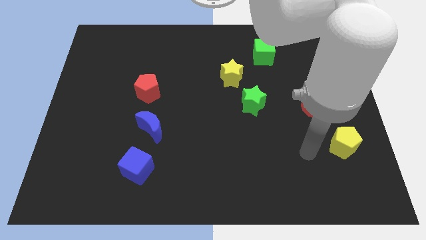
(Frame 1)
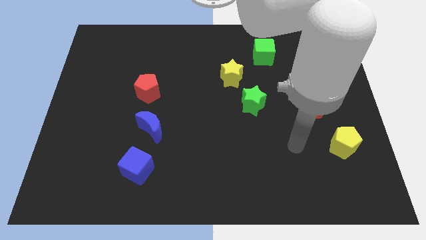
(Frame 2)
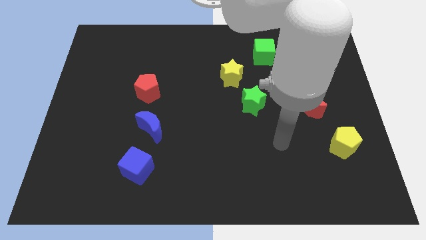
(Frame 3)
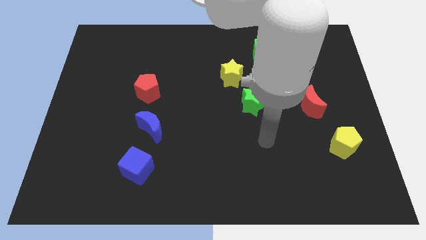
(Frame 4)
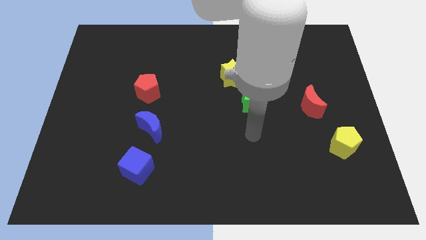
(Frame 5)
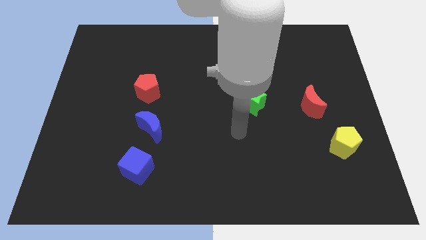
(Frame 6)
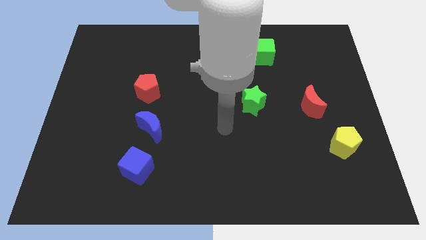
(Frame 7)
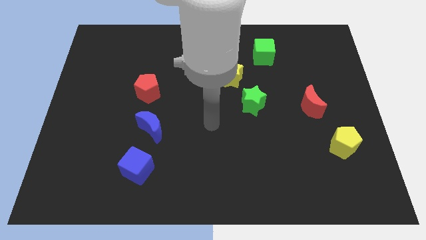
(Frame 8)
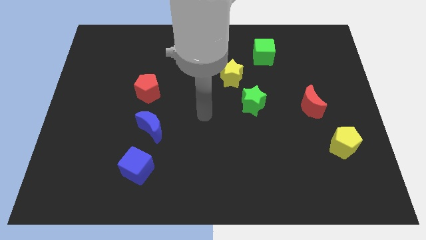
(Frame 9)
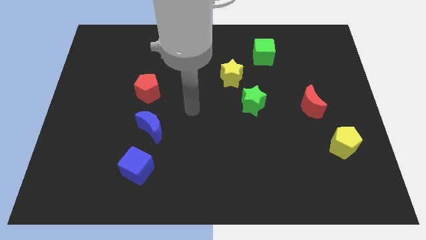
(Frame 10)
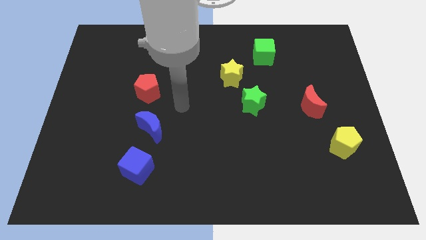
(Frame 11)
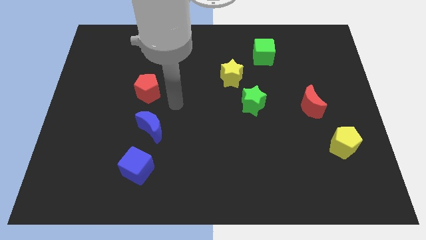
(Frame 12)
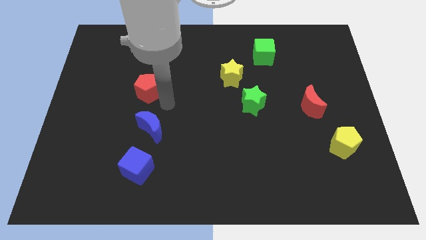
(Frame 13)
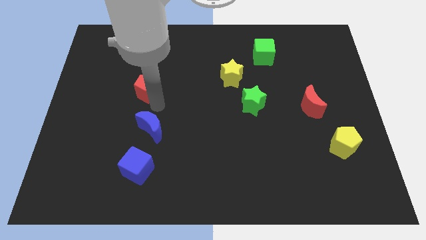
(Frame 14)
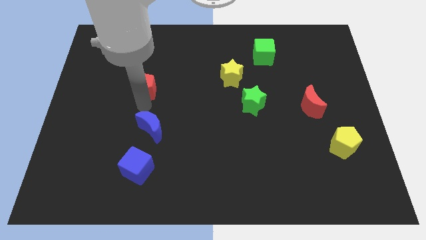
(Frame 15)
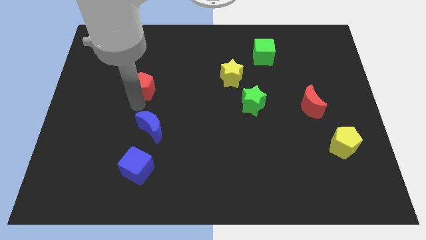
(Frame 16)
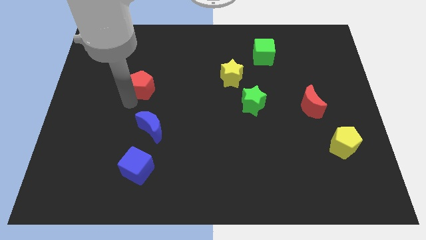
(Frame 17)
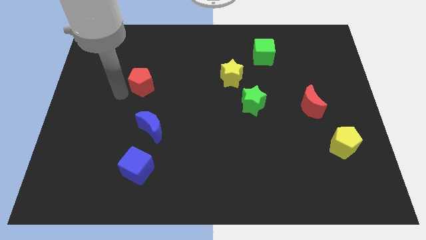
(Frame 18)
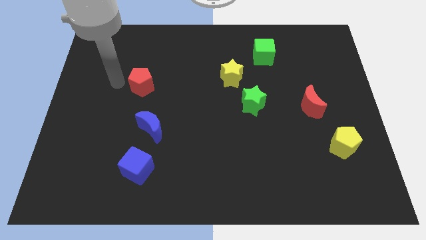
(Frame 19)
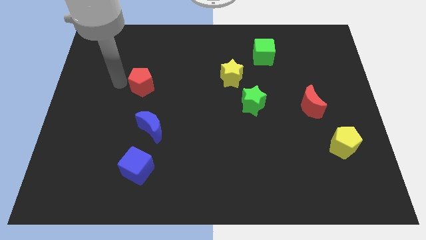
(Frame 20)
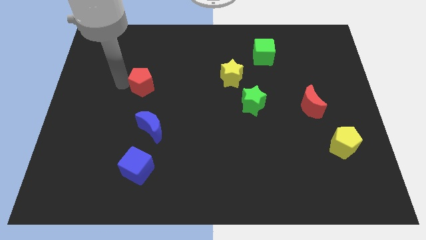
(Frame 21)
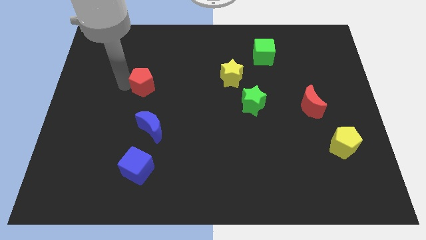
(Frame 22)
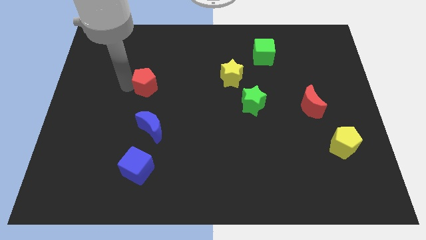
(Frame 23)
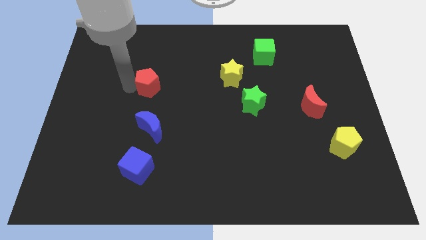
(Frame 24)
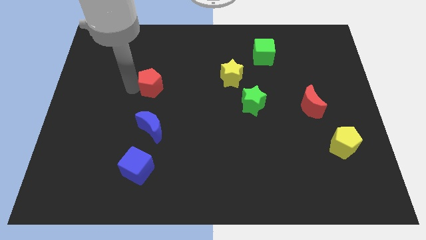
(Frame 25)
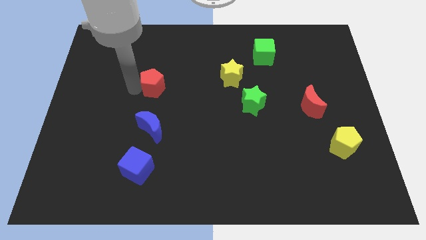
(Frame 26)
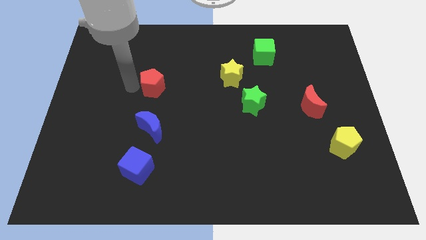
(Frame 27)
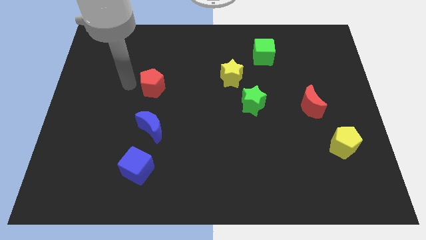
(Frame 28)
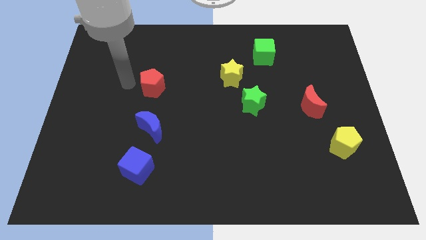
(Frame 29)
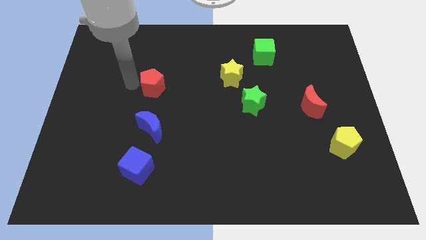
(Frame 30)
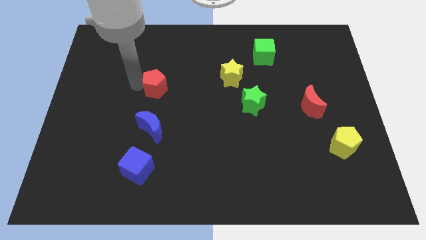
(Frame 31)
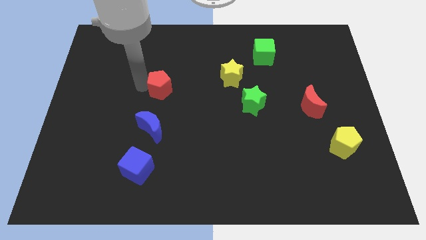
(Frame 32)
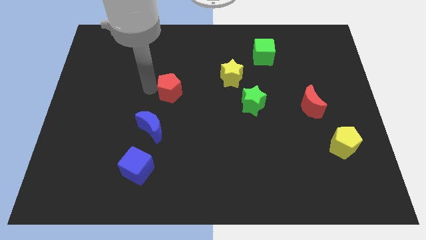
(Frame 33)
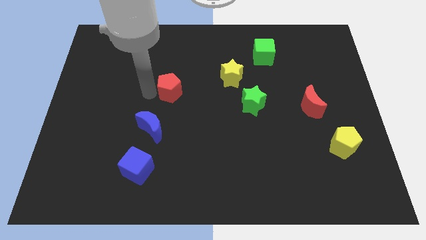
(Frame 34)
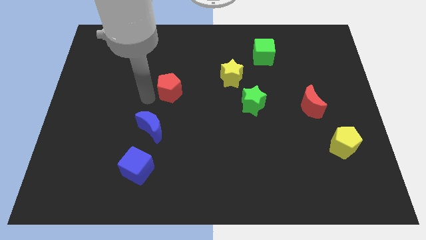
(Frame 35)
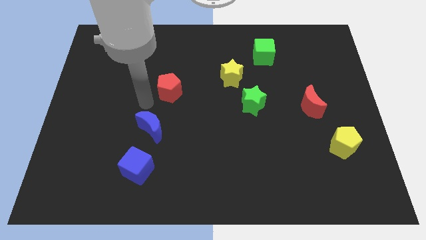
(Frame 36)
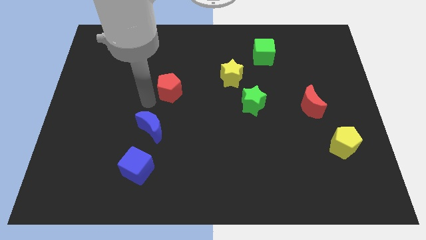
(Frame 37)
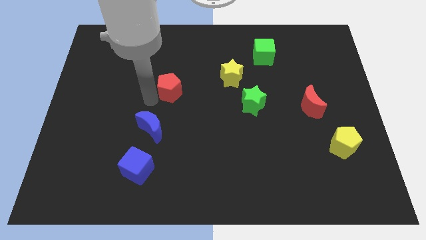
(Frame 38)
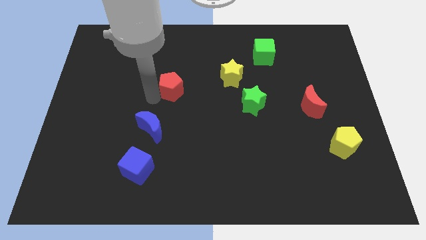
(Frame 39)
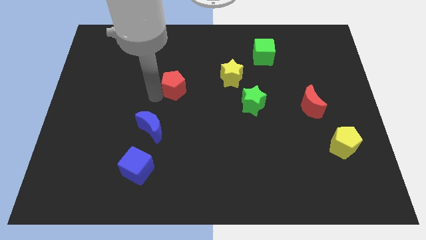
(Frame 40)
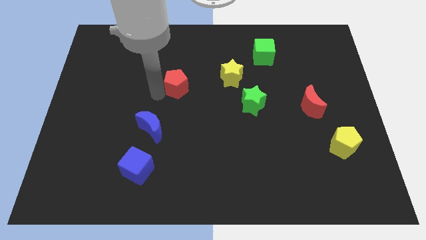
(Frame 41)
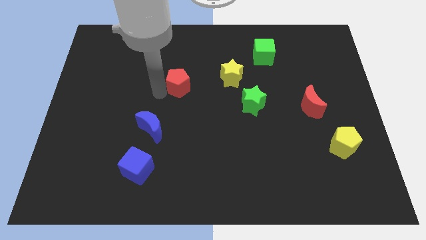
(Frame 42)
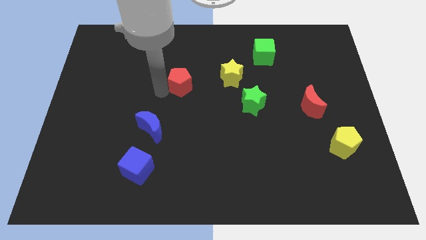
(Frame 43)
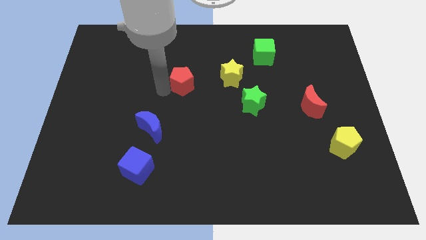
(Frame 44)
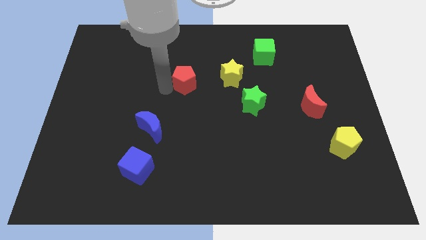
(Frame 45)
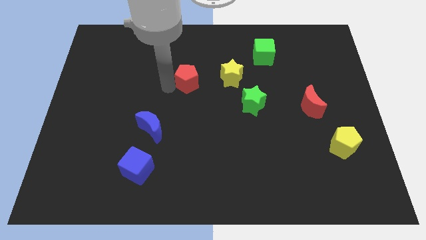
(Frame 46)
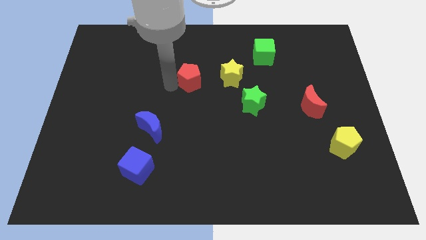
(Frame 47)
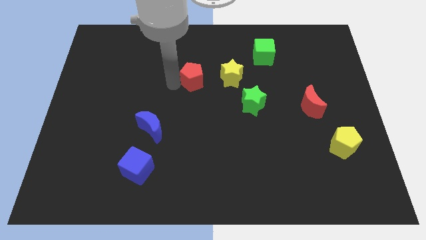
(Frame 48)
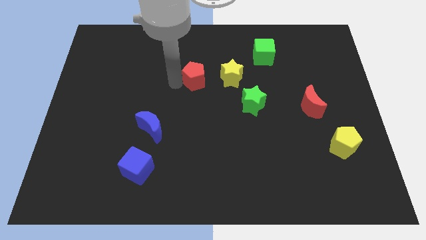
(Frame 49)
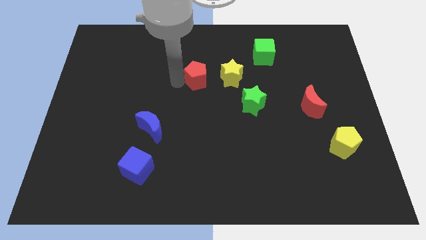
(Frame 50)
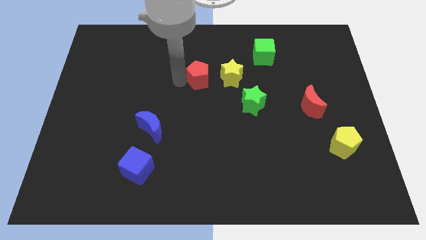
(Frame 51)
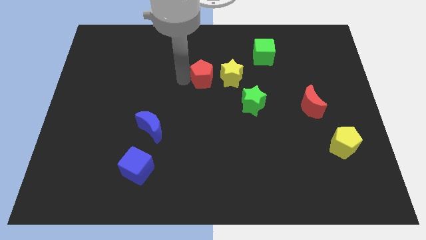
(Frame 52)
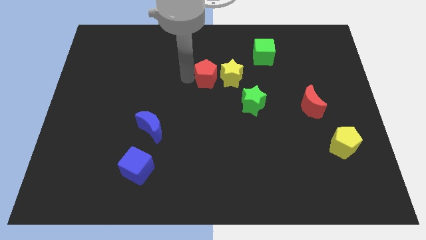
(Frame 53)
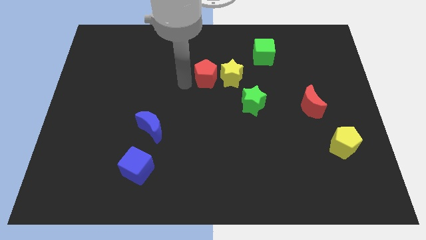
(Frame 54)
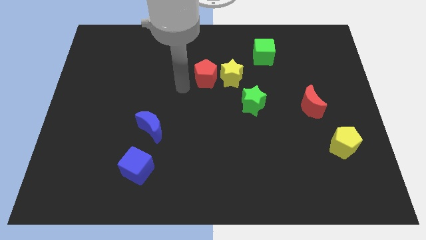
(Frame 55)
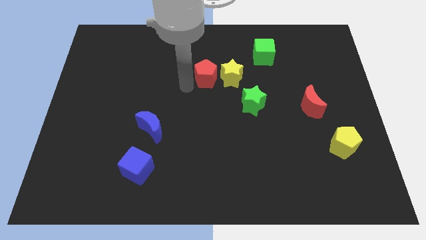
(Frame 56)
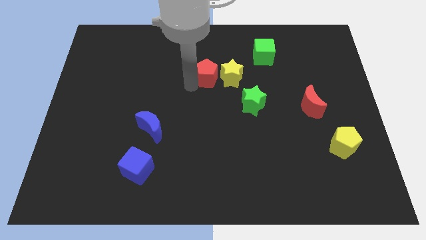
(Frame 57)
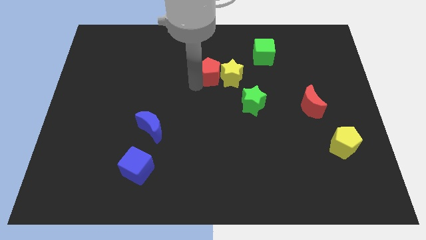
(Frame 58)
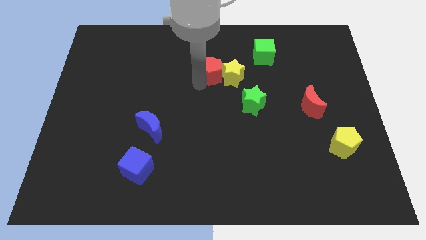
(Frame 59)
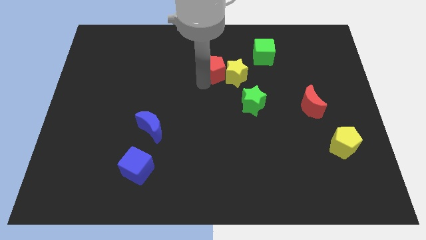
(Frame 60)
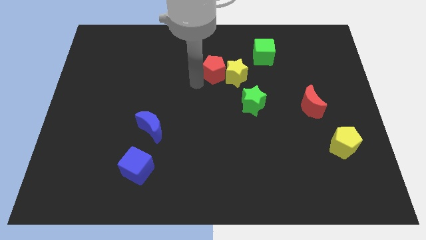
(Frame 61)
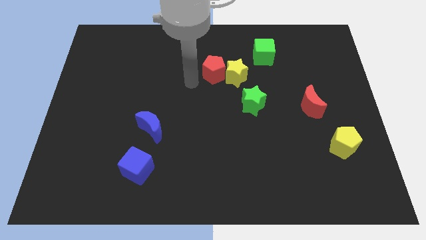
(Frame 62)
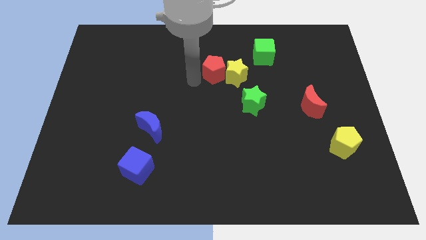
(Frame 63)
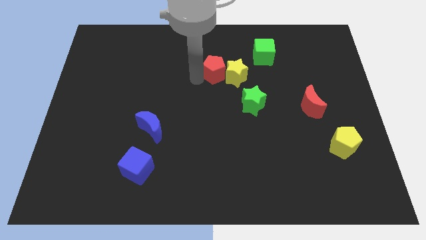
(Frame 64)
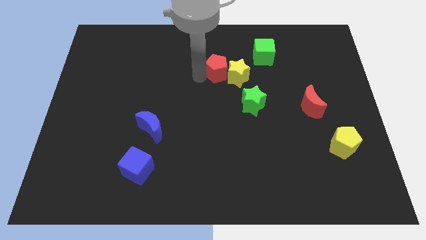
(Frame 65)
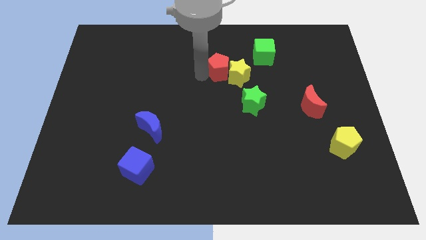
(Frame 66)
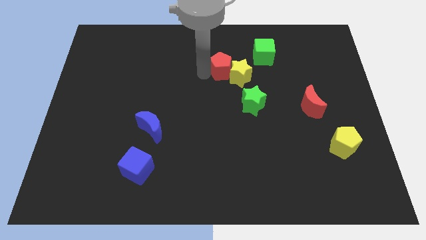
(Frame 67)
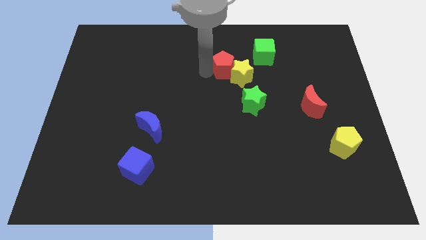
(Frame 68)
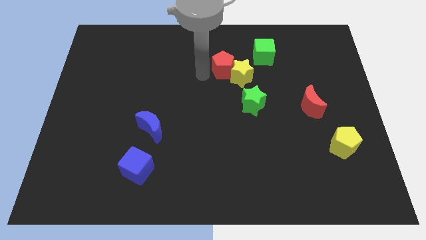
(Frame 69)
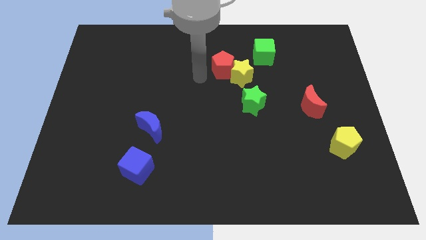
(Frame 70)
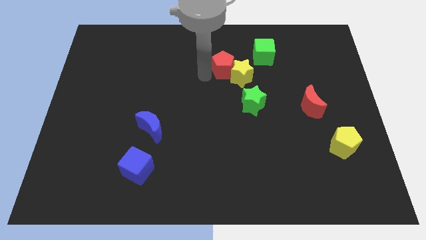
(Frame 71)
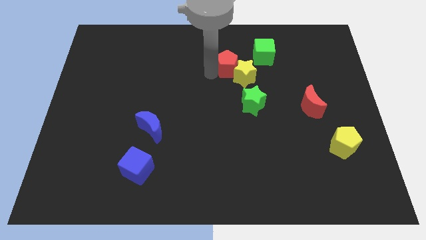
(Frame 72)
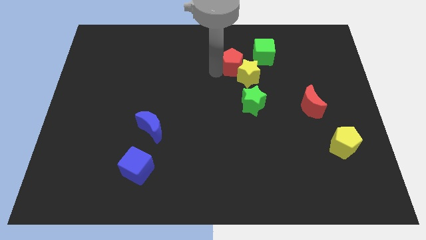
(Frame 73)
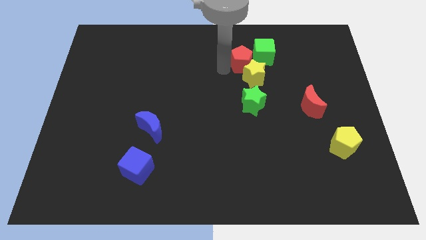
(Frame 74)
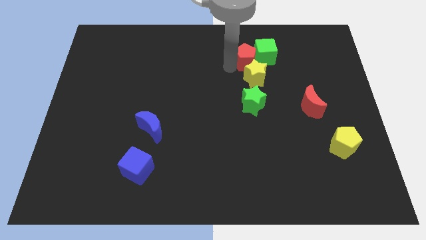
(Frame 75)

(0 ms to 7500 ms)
put the red pentagon towards the green cube

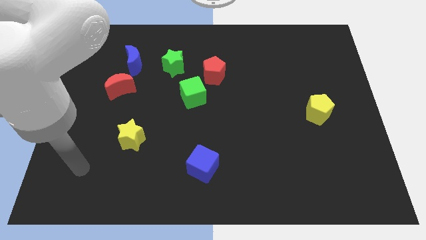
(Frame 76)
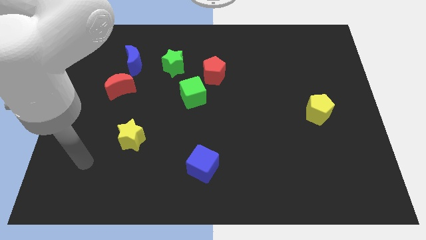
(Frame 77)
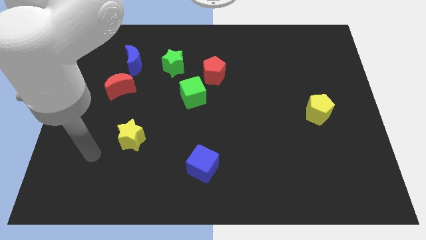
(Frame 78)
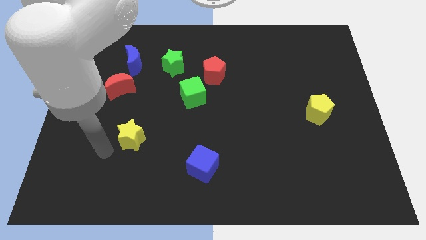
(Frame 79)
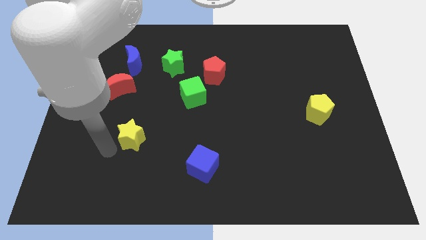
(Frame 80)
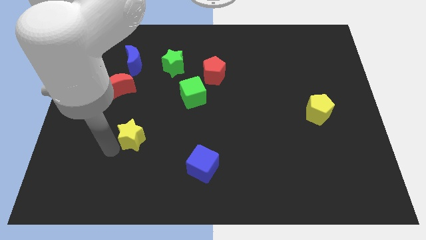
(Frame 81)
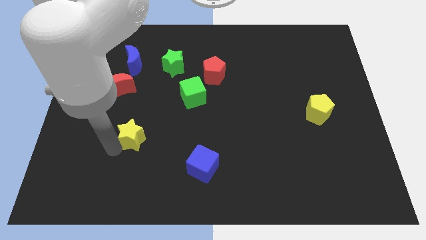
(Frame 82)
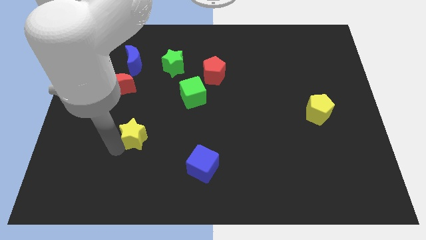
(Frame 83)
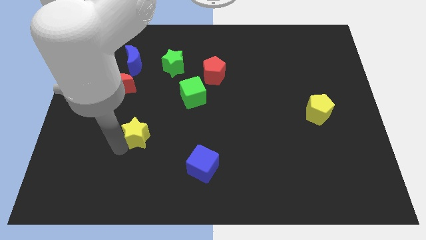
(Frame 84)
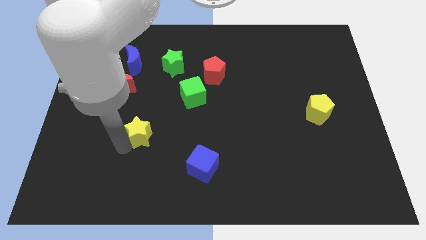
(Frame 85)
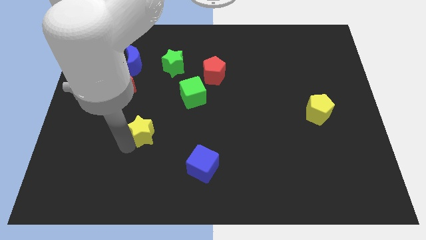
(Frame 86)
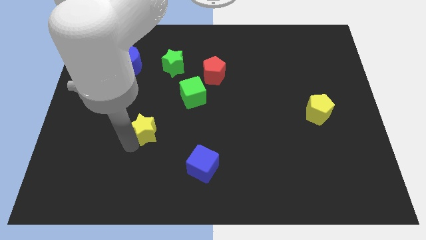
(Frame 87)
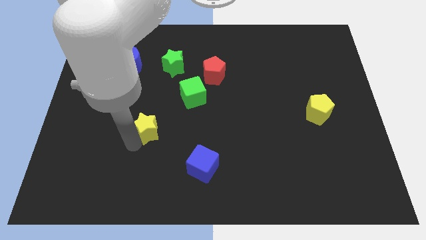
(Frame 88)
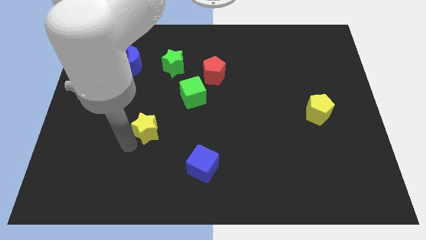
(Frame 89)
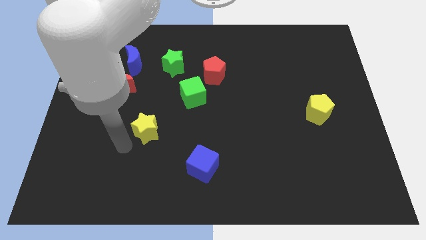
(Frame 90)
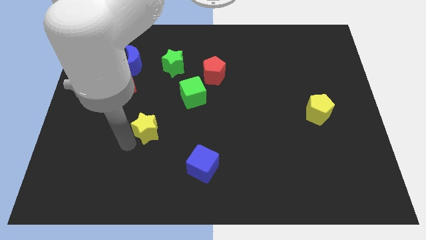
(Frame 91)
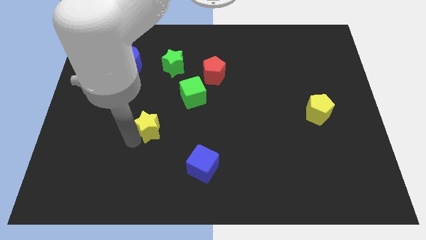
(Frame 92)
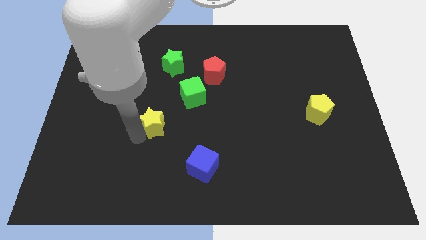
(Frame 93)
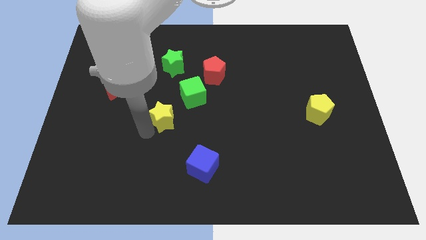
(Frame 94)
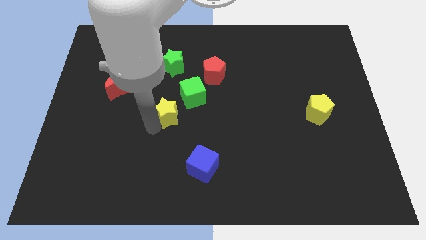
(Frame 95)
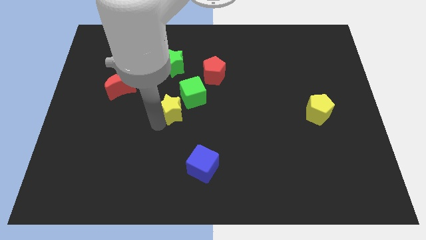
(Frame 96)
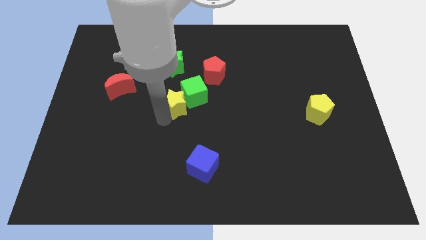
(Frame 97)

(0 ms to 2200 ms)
move the yellow star towards the green cube
